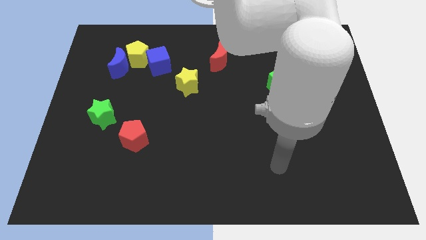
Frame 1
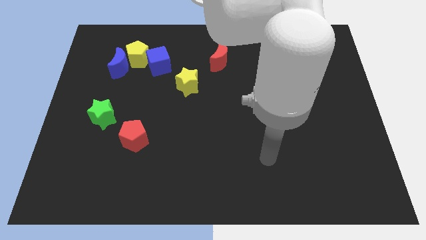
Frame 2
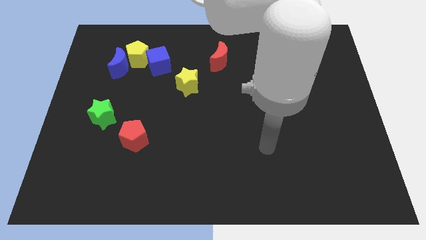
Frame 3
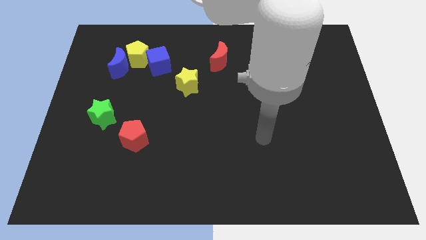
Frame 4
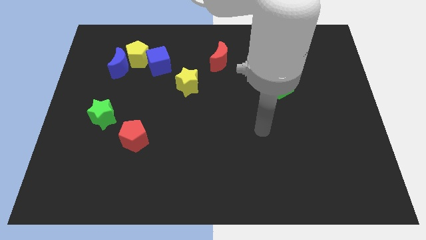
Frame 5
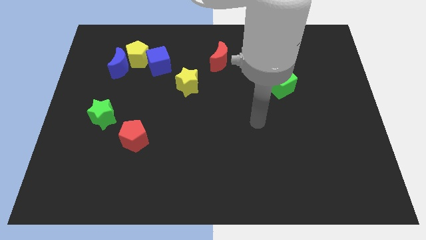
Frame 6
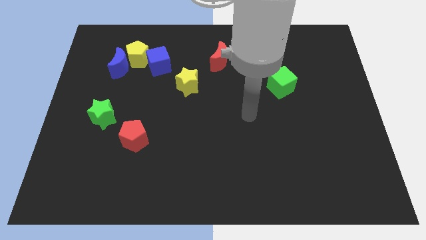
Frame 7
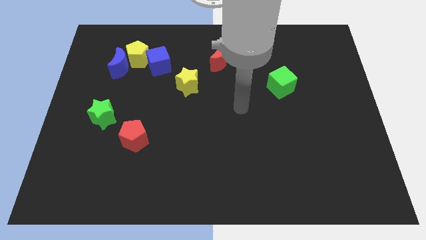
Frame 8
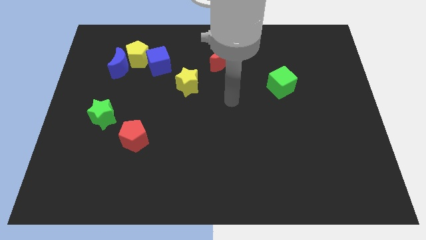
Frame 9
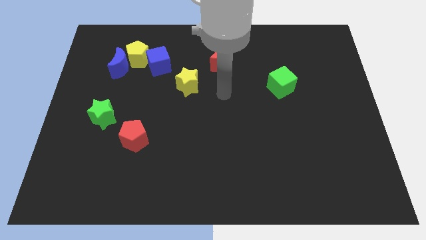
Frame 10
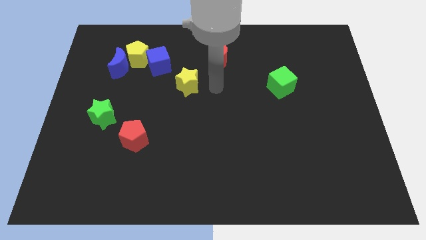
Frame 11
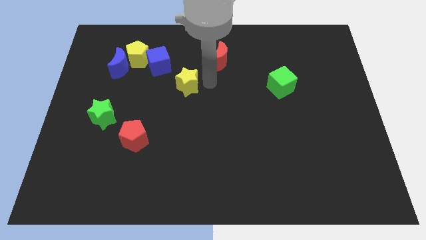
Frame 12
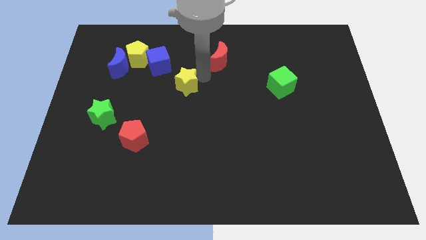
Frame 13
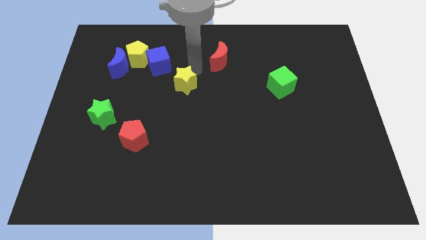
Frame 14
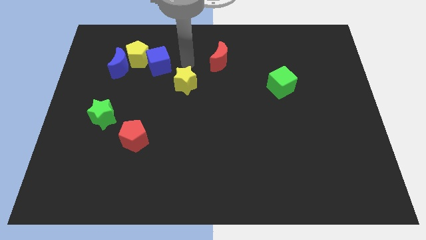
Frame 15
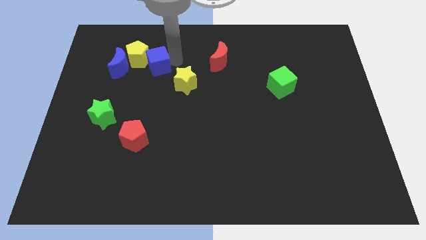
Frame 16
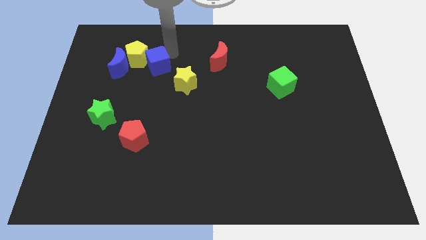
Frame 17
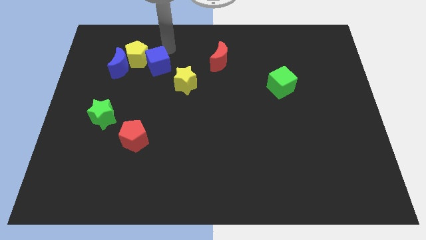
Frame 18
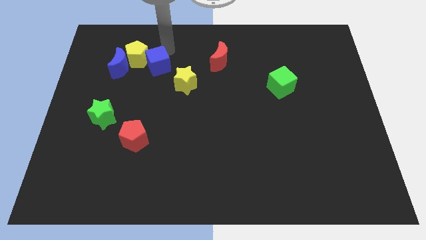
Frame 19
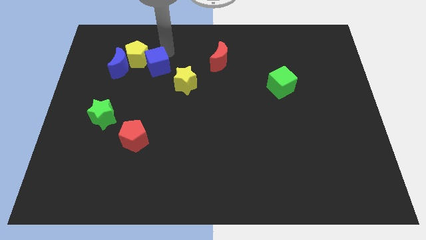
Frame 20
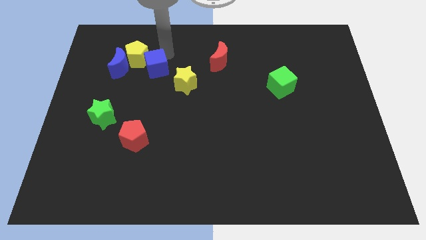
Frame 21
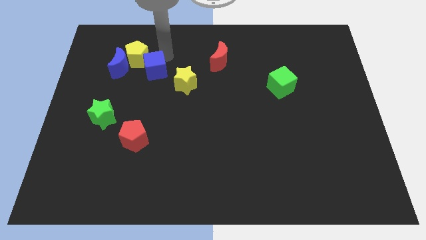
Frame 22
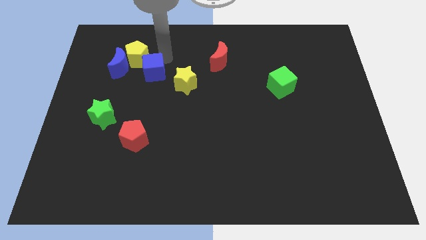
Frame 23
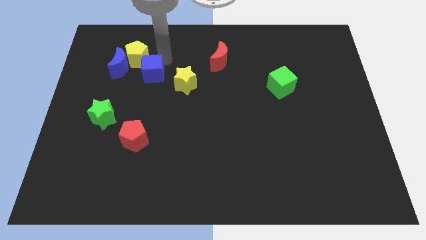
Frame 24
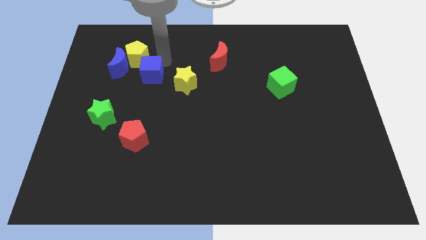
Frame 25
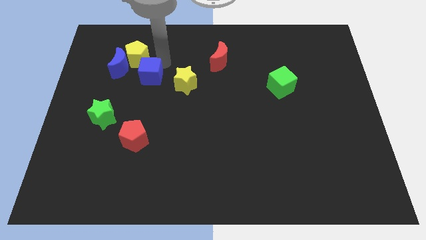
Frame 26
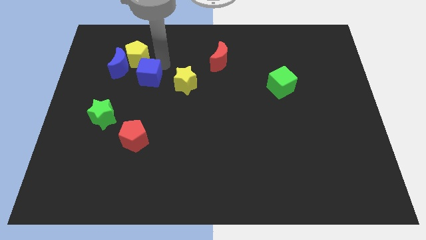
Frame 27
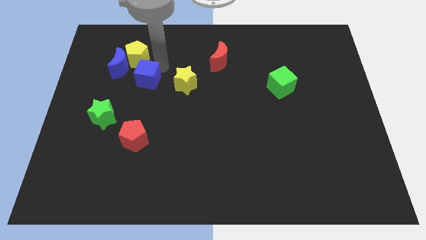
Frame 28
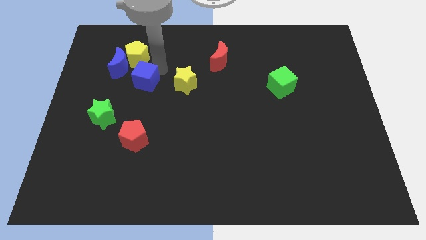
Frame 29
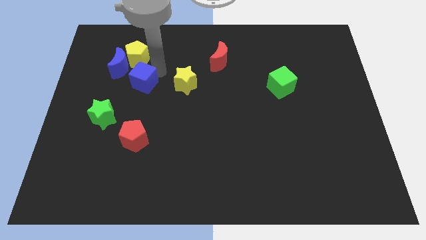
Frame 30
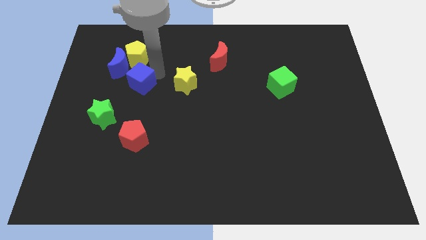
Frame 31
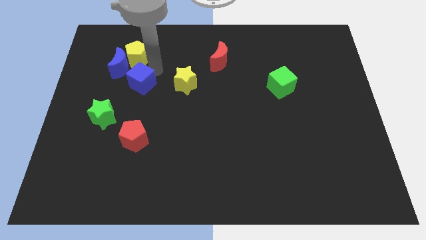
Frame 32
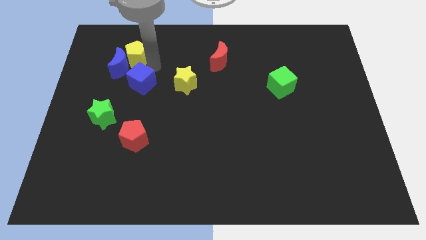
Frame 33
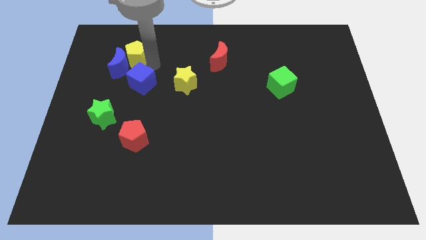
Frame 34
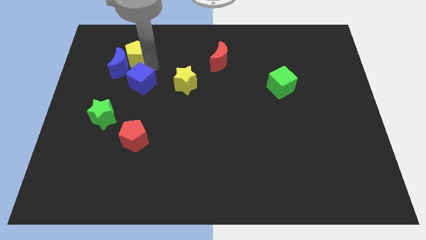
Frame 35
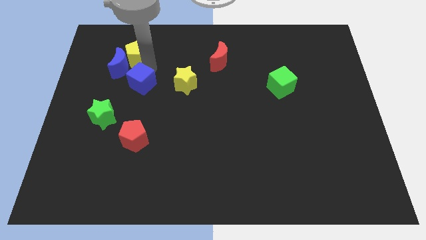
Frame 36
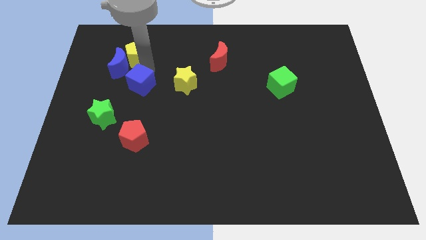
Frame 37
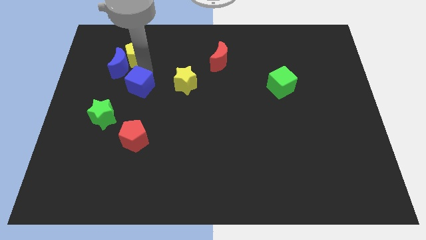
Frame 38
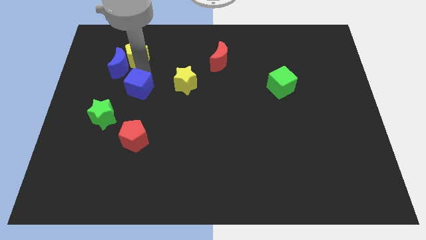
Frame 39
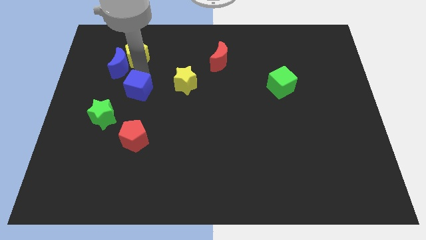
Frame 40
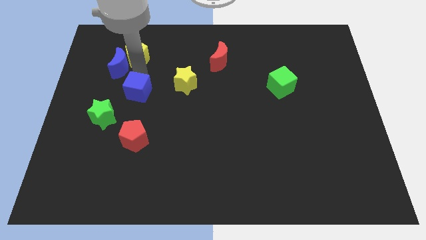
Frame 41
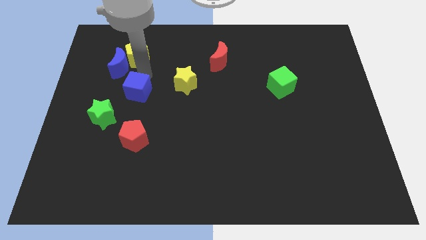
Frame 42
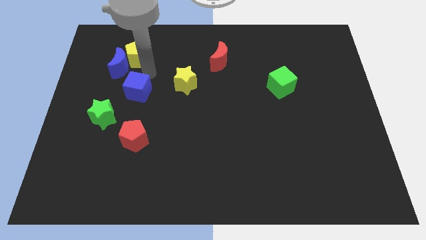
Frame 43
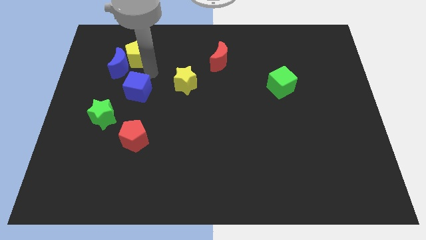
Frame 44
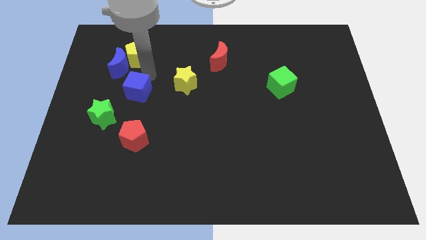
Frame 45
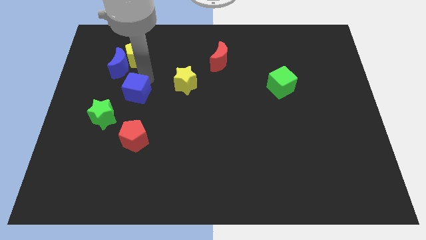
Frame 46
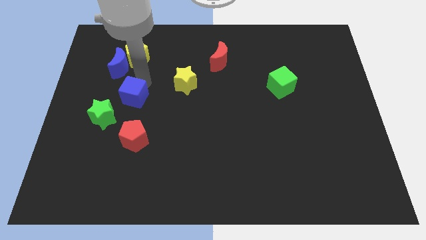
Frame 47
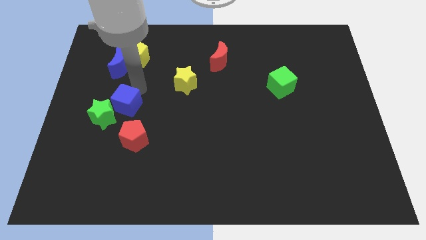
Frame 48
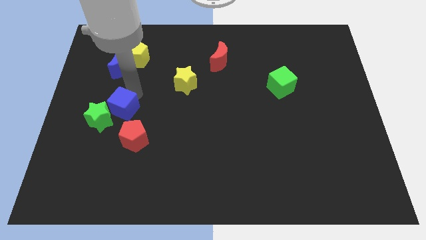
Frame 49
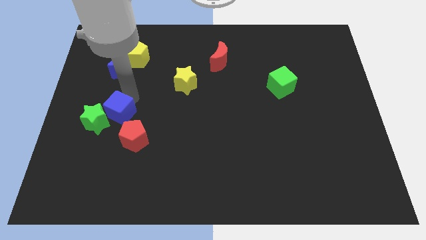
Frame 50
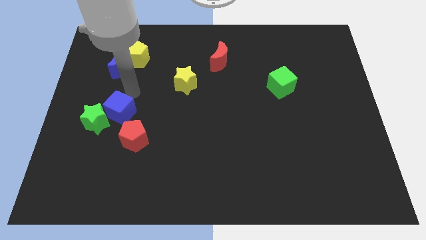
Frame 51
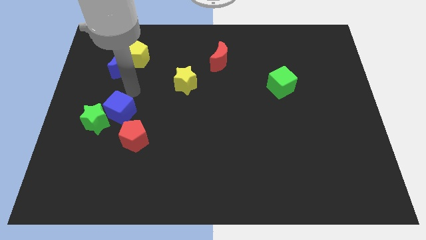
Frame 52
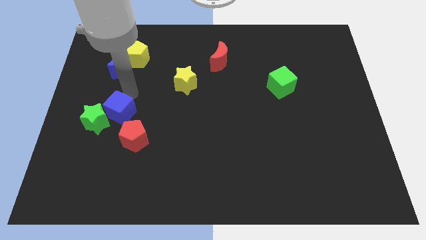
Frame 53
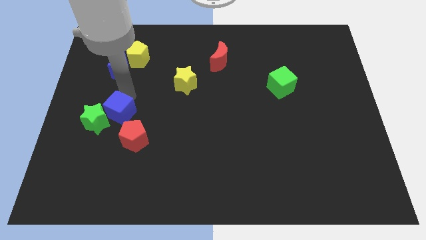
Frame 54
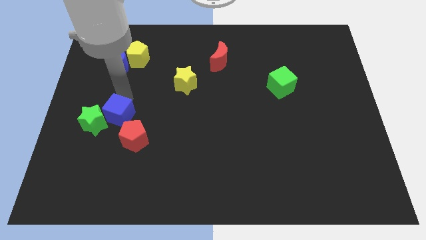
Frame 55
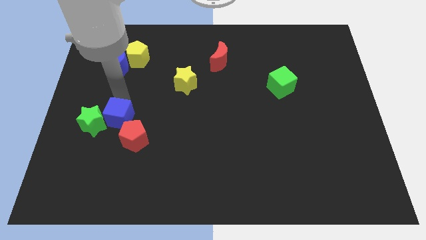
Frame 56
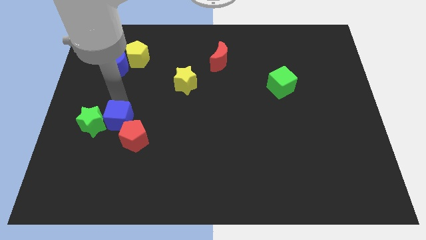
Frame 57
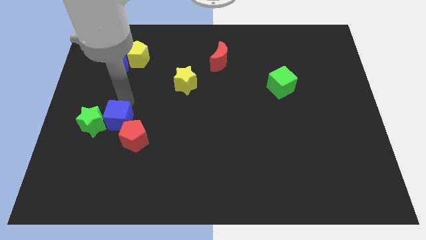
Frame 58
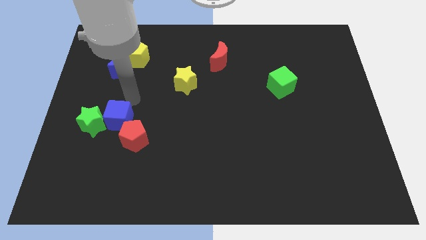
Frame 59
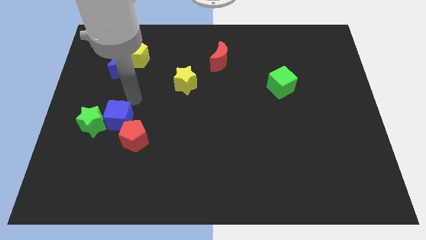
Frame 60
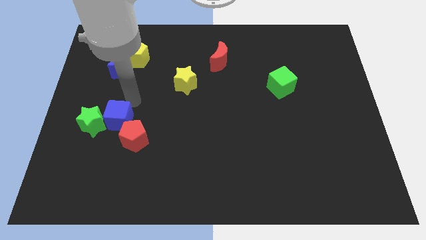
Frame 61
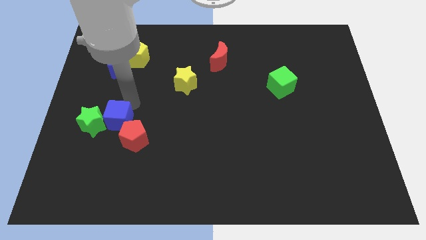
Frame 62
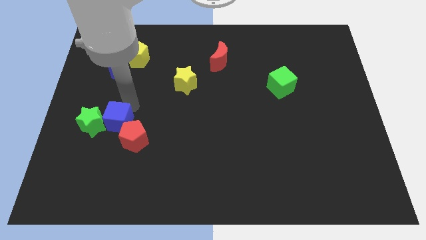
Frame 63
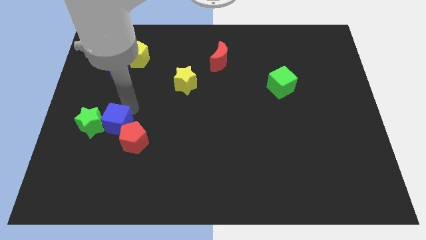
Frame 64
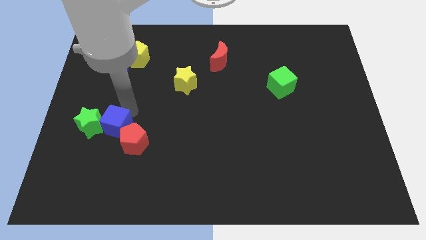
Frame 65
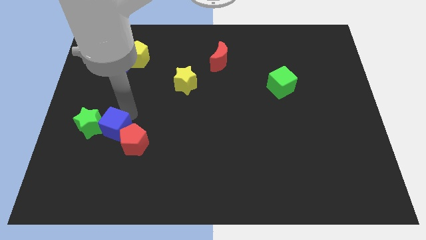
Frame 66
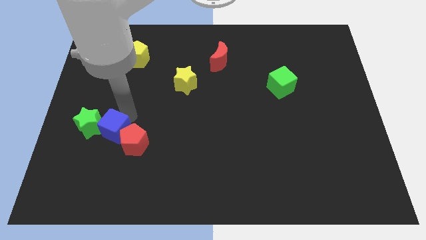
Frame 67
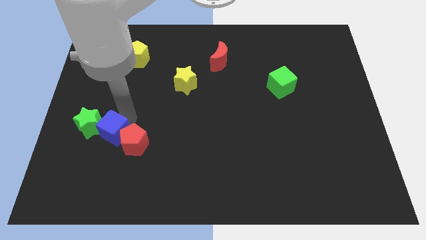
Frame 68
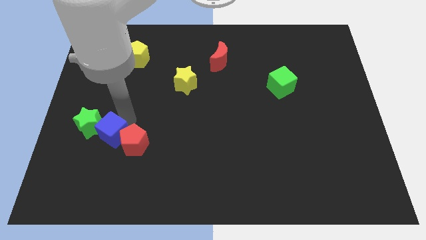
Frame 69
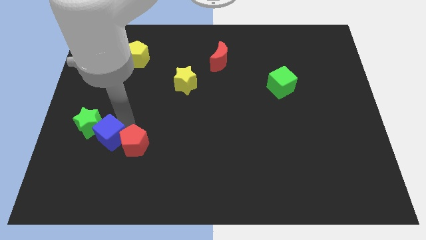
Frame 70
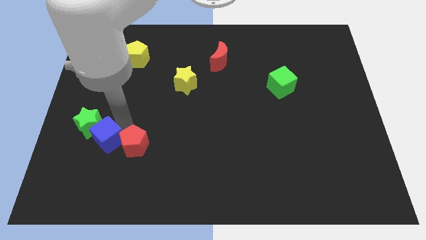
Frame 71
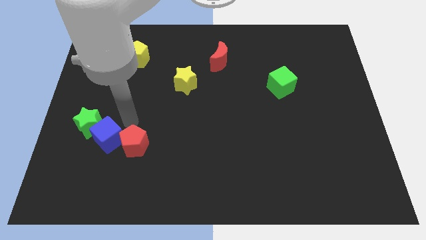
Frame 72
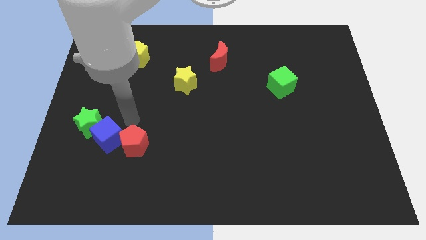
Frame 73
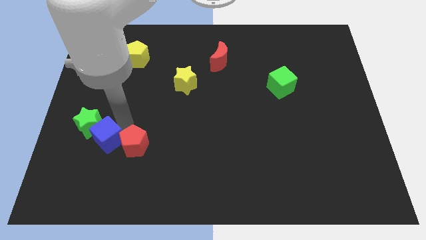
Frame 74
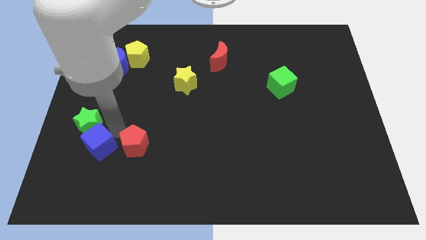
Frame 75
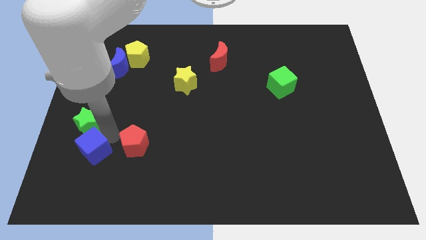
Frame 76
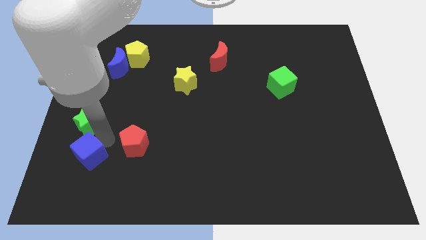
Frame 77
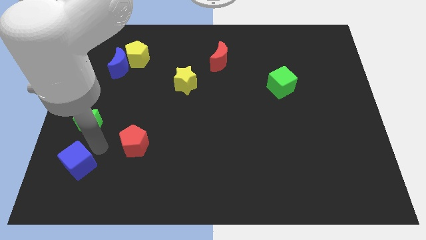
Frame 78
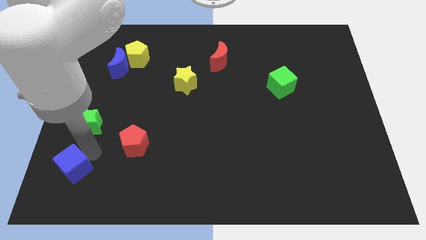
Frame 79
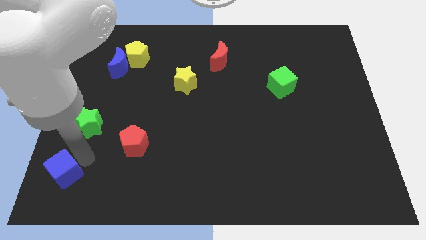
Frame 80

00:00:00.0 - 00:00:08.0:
slide the blue cube to the bottom left of the board
